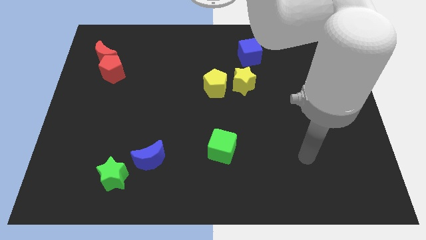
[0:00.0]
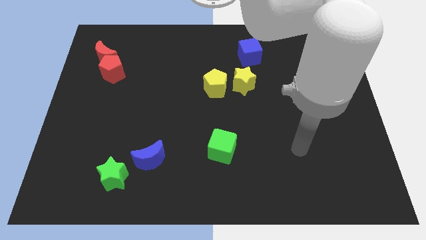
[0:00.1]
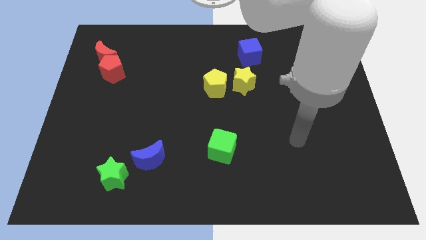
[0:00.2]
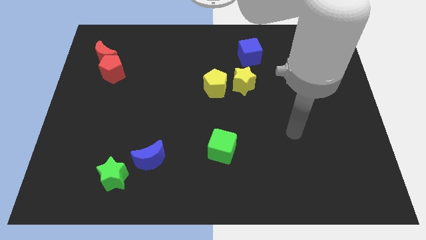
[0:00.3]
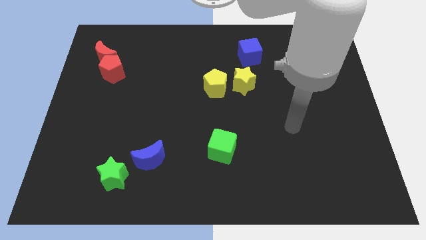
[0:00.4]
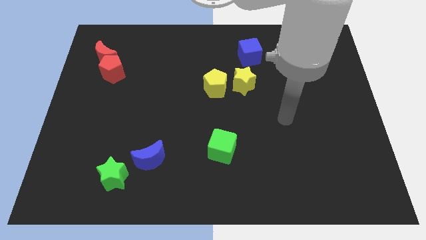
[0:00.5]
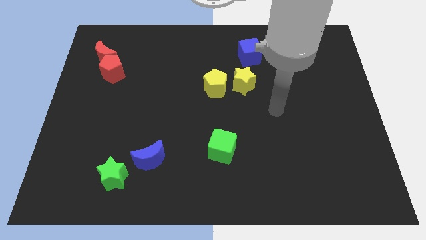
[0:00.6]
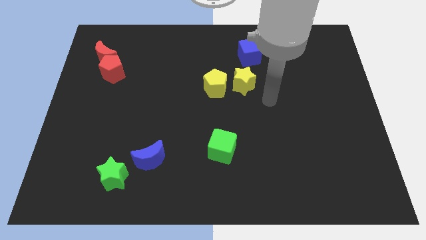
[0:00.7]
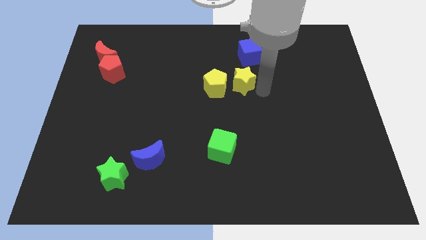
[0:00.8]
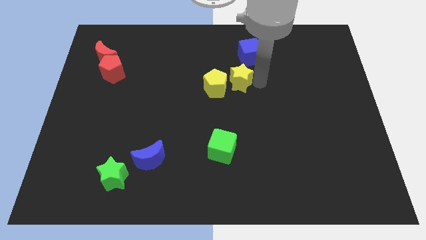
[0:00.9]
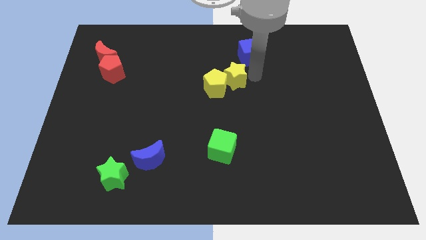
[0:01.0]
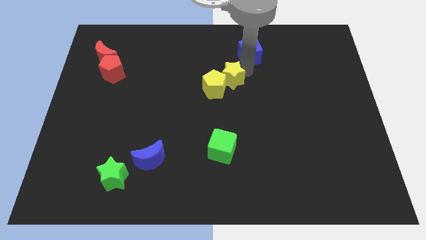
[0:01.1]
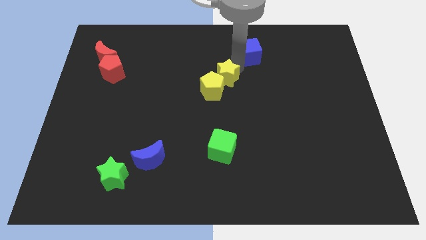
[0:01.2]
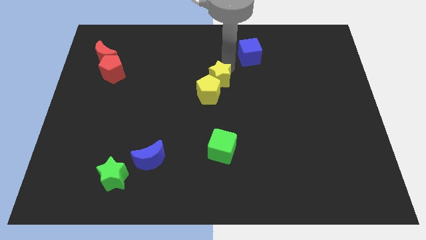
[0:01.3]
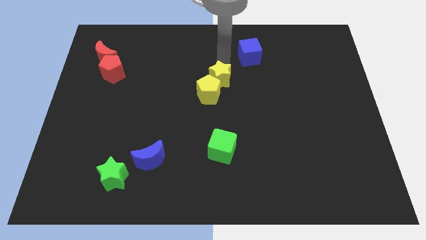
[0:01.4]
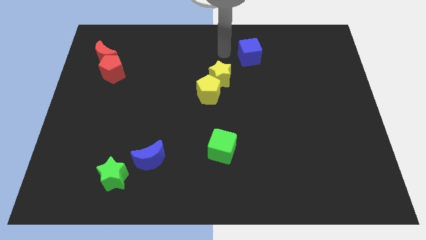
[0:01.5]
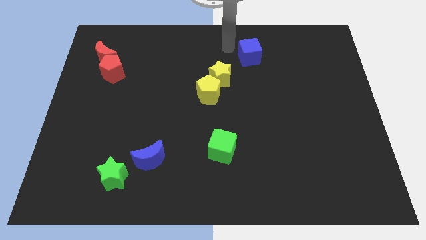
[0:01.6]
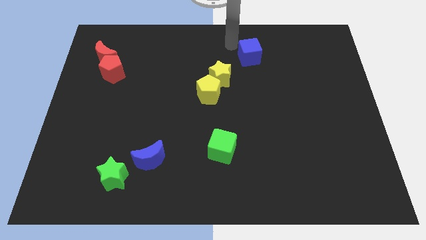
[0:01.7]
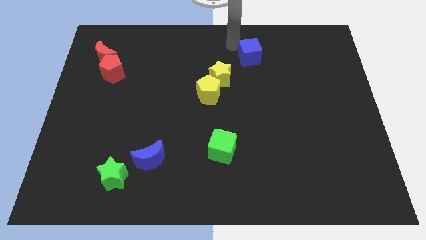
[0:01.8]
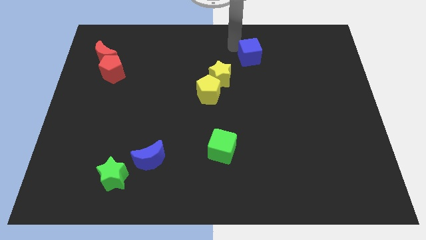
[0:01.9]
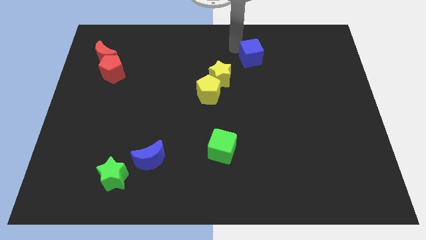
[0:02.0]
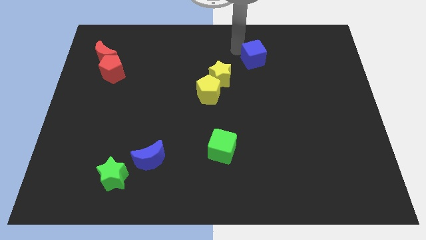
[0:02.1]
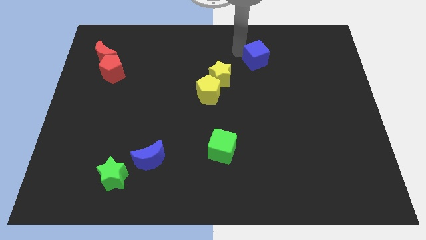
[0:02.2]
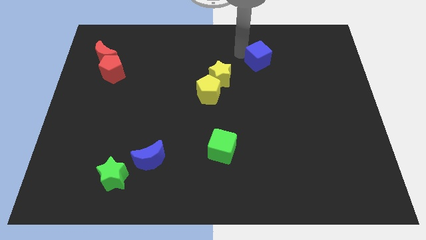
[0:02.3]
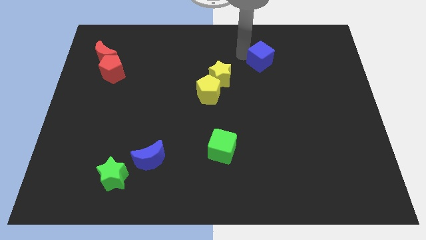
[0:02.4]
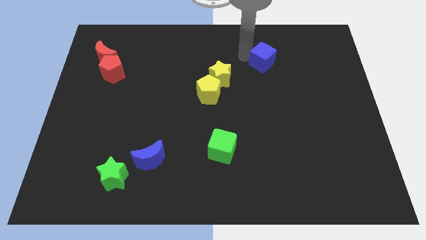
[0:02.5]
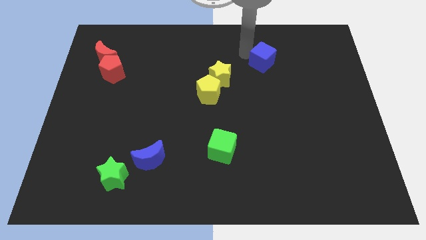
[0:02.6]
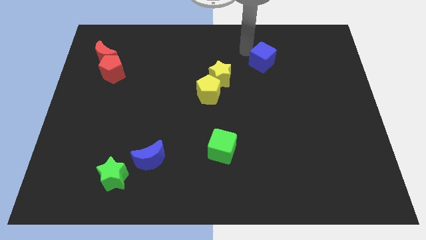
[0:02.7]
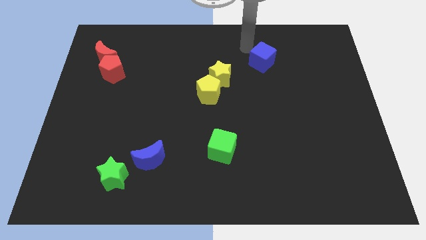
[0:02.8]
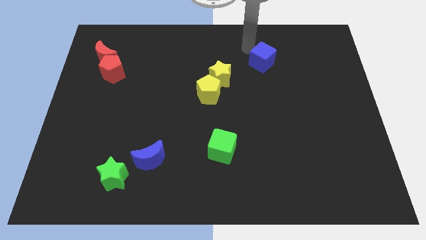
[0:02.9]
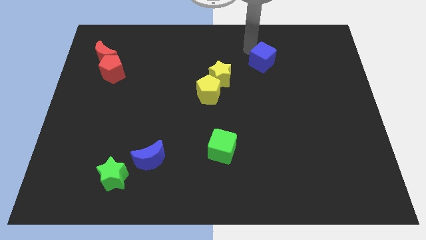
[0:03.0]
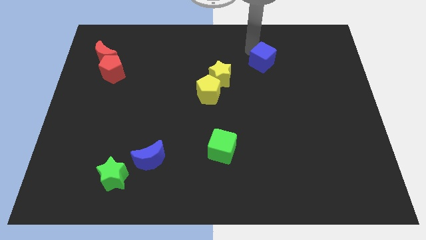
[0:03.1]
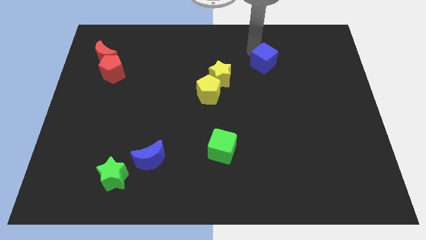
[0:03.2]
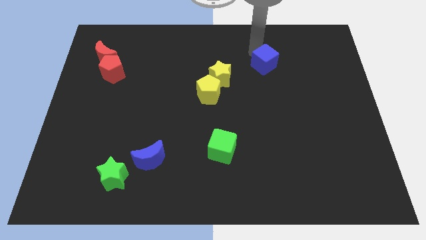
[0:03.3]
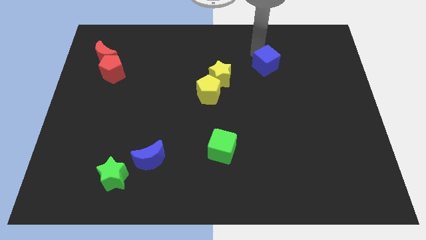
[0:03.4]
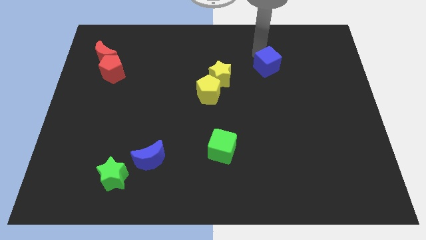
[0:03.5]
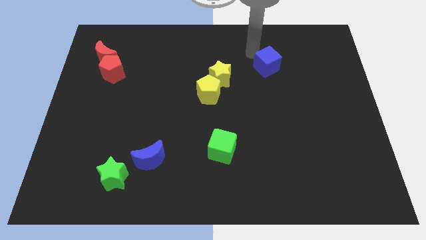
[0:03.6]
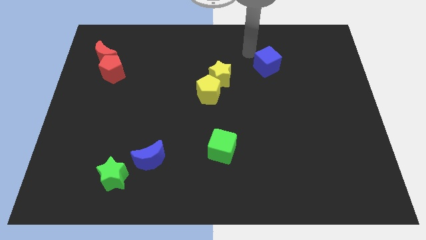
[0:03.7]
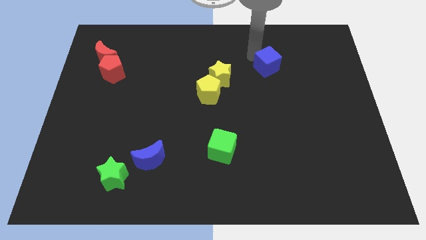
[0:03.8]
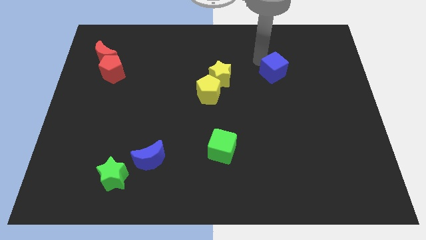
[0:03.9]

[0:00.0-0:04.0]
slide the blue cube slightly down and right diagonally

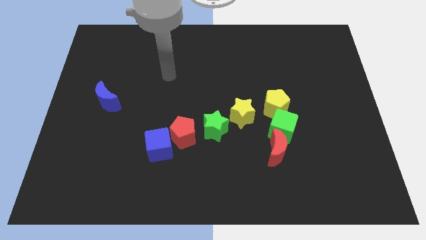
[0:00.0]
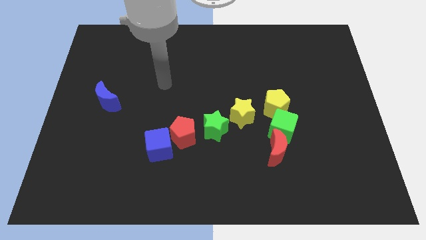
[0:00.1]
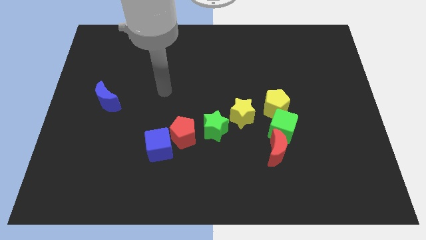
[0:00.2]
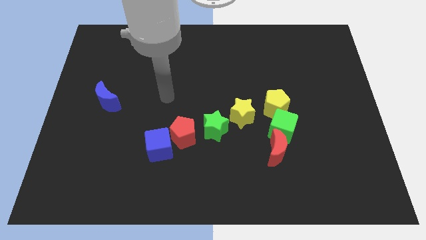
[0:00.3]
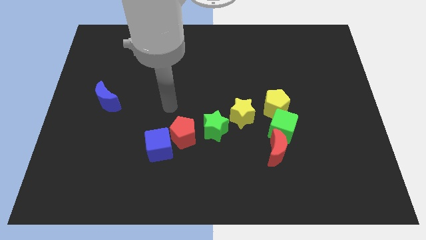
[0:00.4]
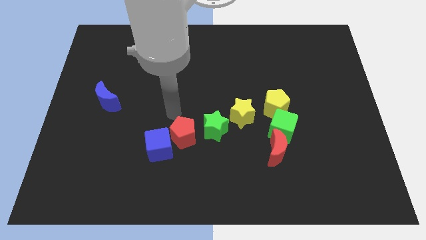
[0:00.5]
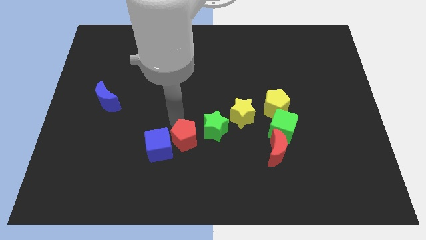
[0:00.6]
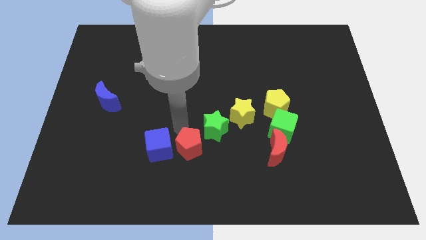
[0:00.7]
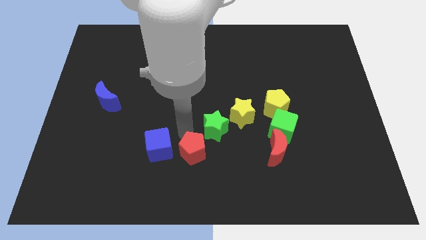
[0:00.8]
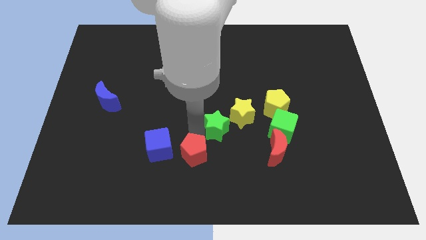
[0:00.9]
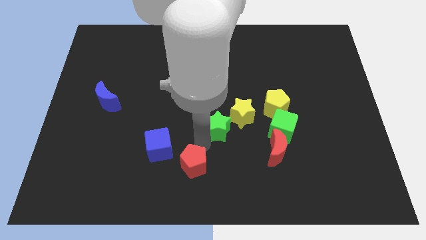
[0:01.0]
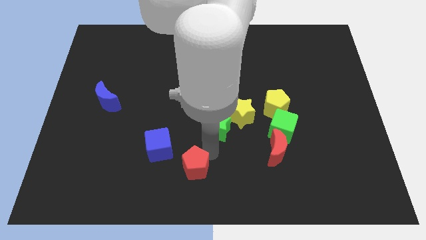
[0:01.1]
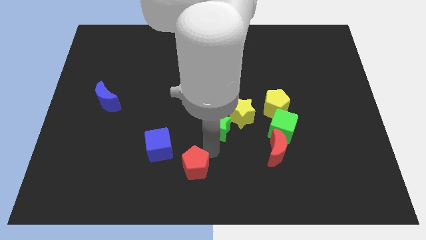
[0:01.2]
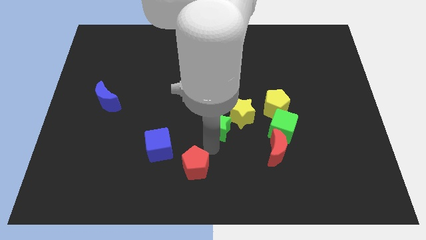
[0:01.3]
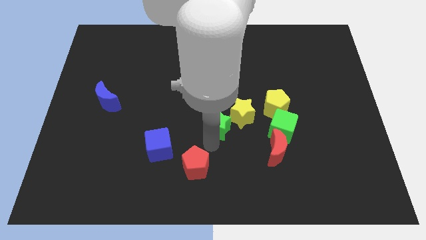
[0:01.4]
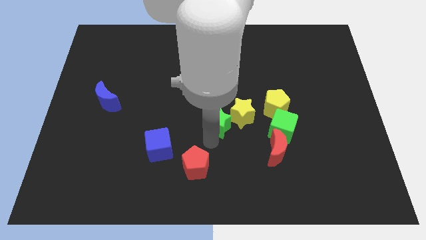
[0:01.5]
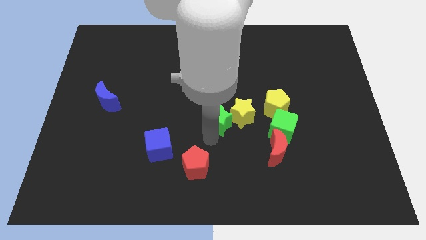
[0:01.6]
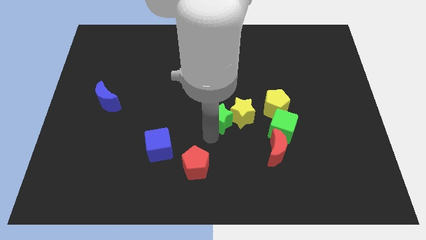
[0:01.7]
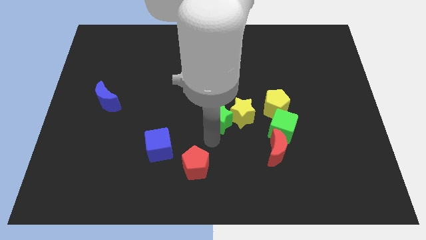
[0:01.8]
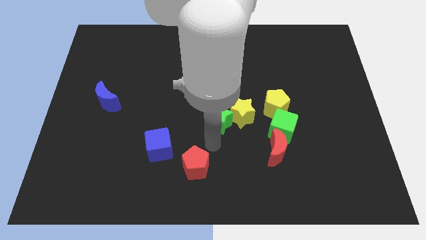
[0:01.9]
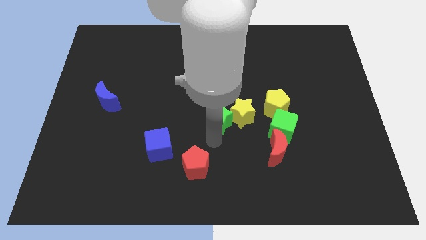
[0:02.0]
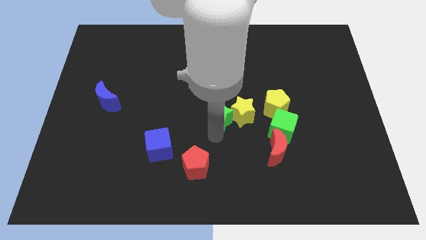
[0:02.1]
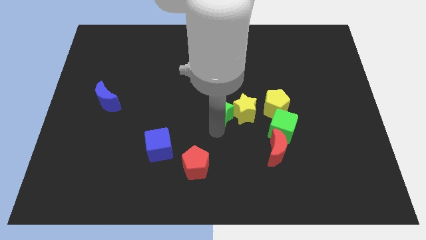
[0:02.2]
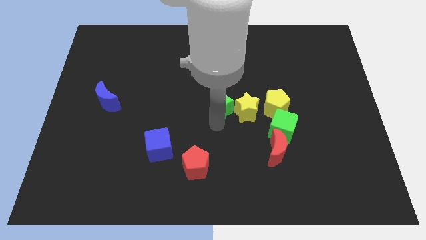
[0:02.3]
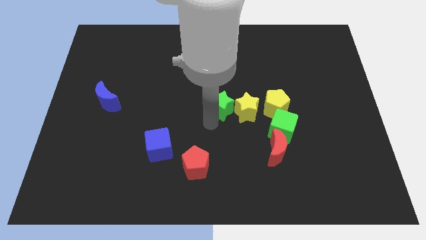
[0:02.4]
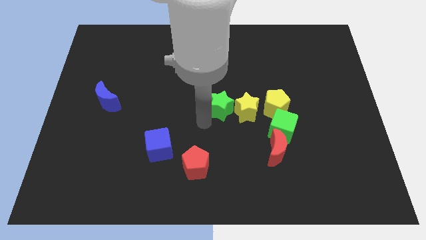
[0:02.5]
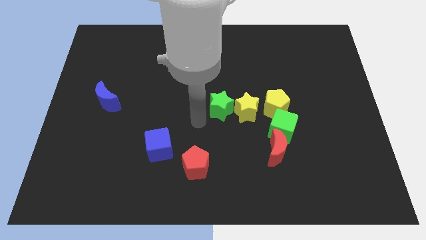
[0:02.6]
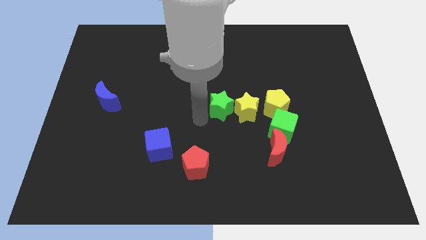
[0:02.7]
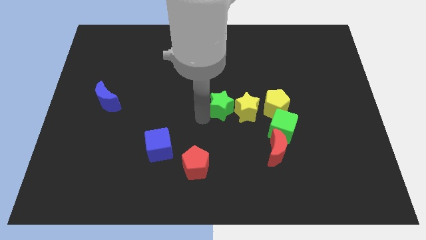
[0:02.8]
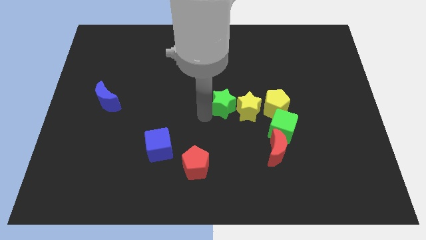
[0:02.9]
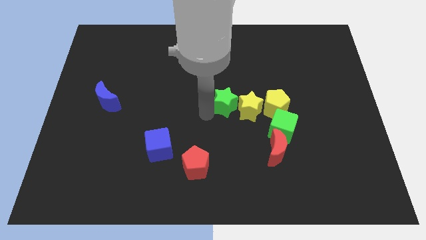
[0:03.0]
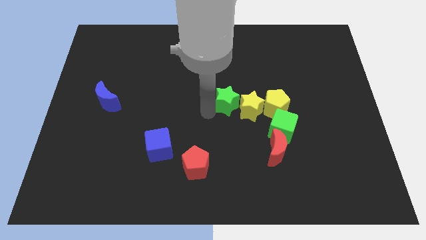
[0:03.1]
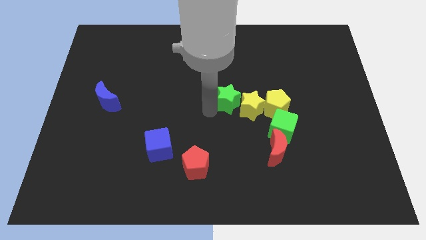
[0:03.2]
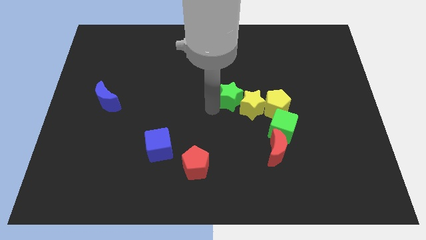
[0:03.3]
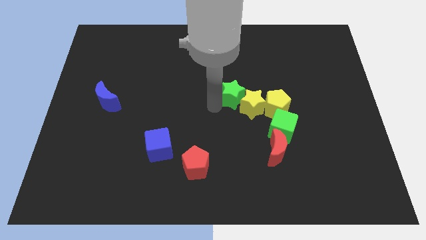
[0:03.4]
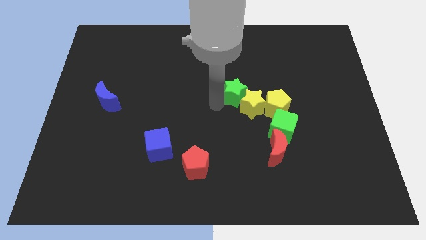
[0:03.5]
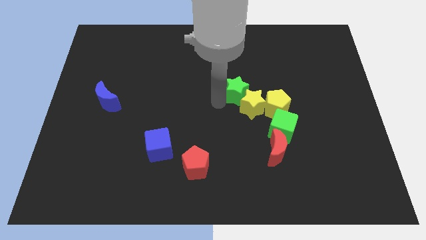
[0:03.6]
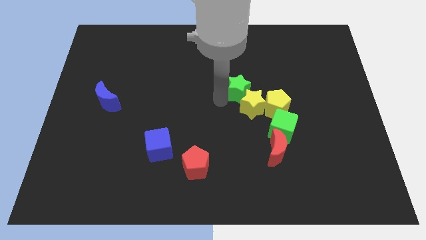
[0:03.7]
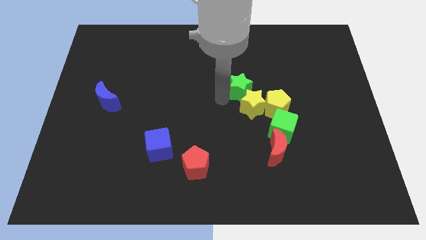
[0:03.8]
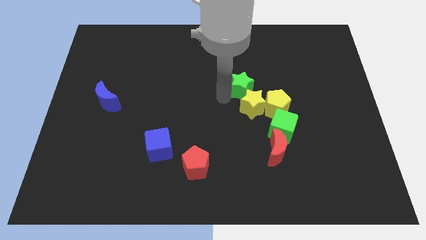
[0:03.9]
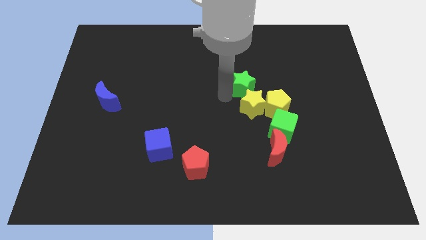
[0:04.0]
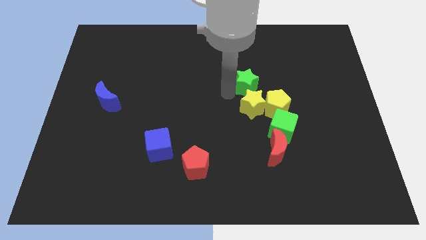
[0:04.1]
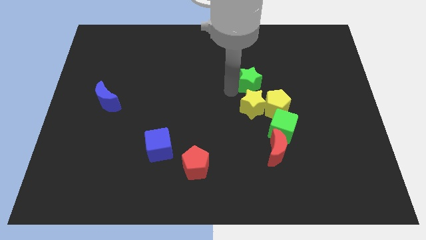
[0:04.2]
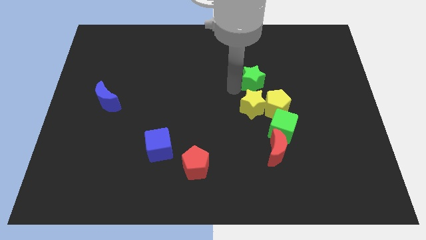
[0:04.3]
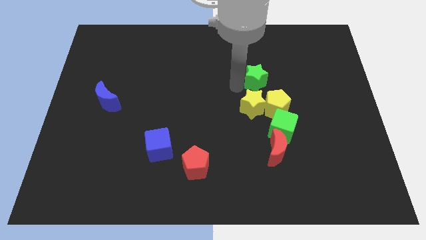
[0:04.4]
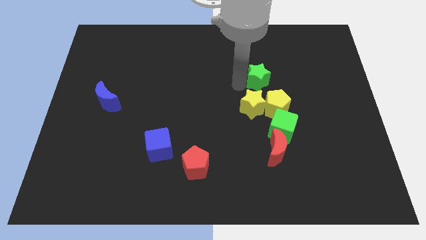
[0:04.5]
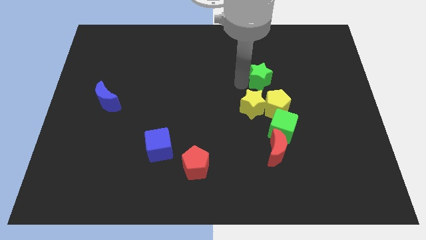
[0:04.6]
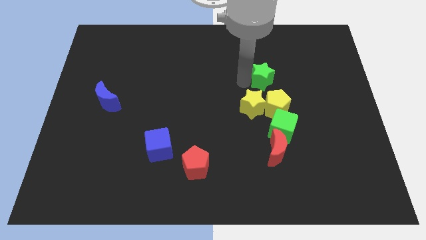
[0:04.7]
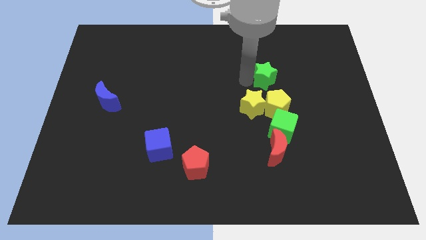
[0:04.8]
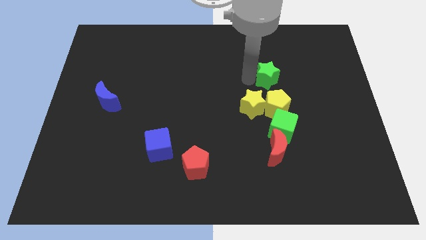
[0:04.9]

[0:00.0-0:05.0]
slide the green star upwards and then to the right
